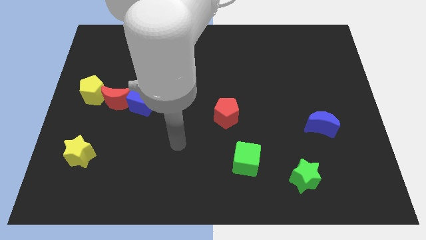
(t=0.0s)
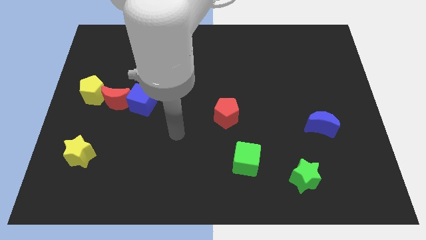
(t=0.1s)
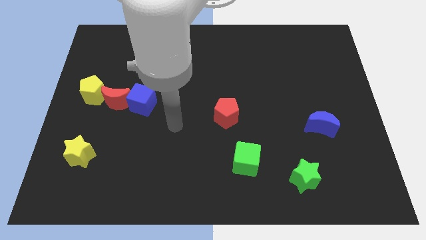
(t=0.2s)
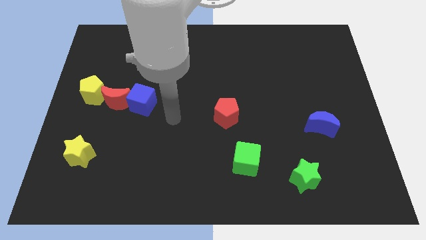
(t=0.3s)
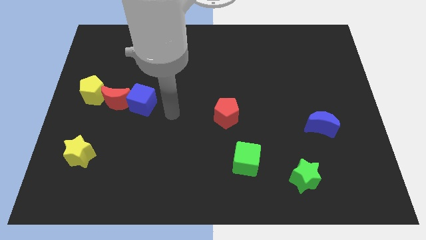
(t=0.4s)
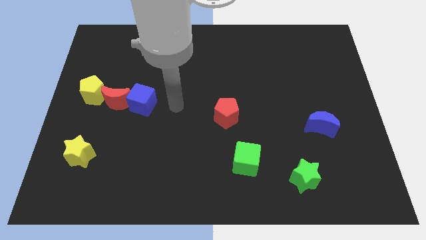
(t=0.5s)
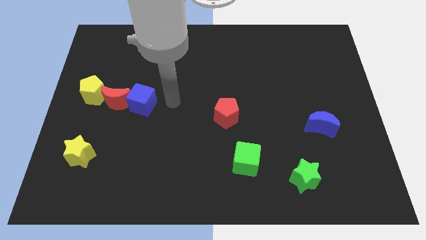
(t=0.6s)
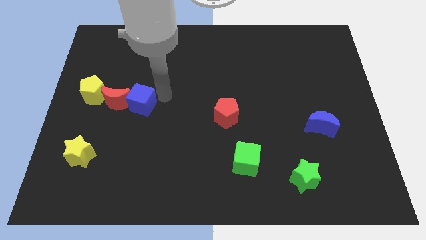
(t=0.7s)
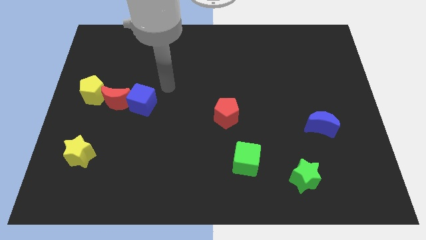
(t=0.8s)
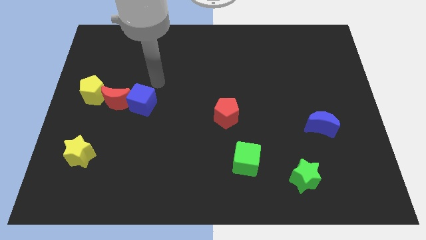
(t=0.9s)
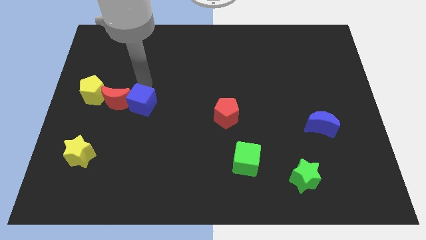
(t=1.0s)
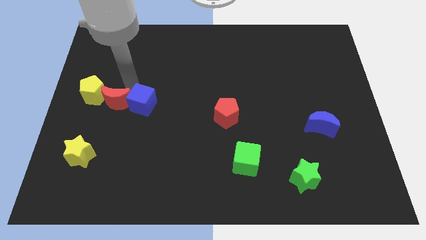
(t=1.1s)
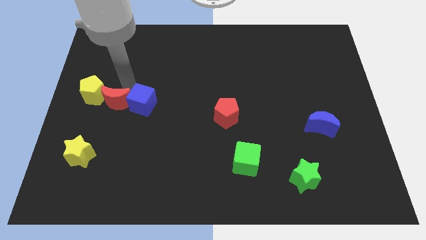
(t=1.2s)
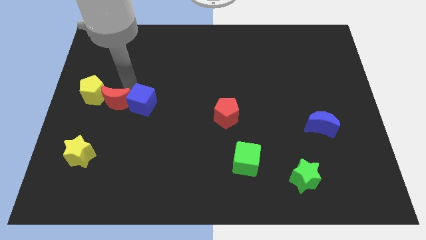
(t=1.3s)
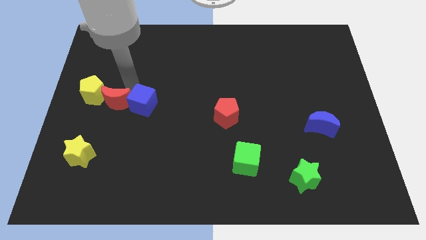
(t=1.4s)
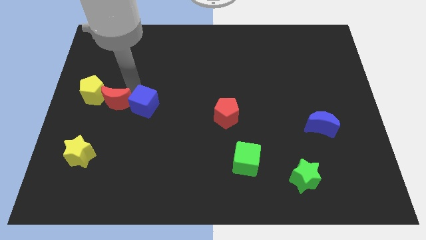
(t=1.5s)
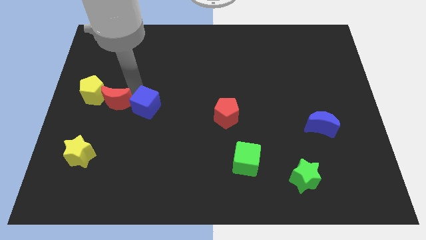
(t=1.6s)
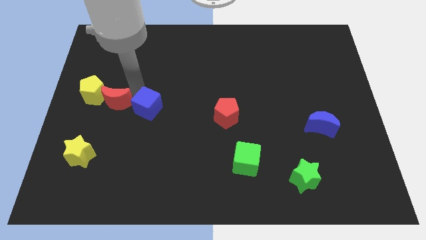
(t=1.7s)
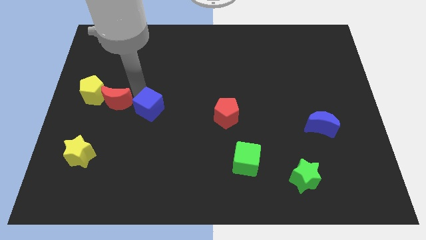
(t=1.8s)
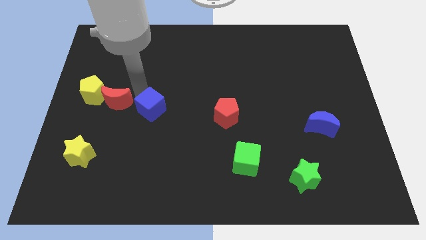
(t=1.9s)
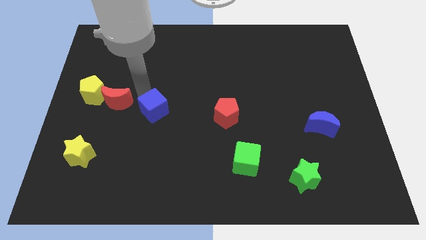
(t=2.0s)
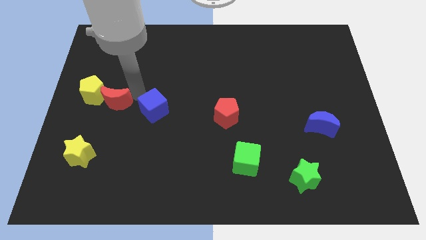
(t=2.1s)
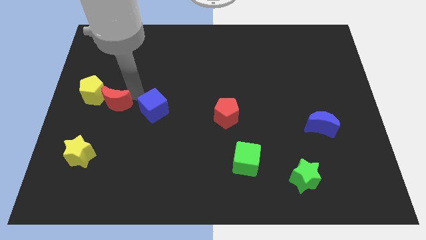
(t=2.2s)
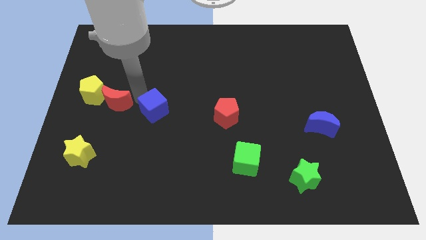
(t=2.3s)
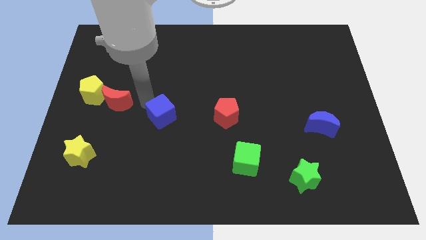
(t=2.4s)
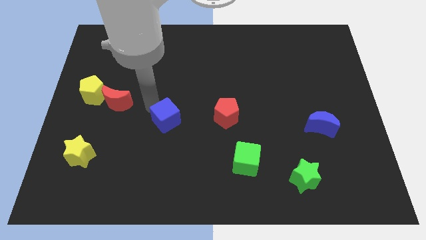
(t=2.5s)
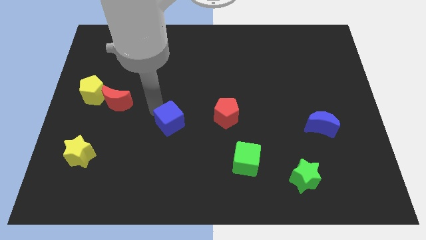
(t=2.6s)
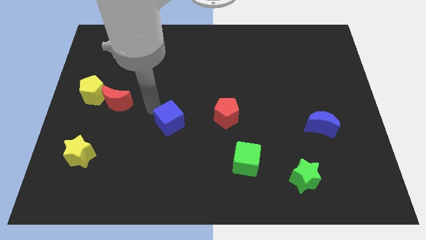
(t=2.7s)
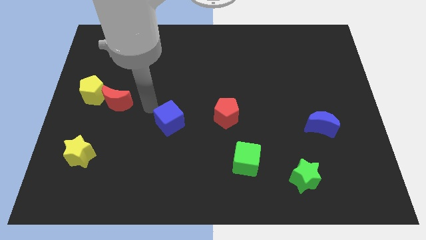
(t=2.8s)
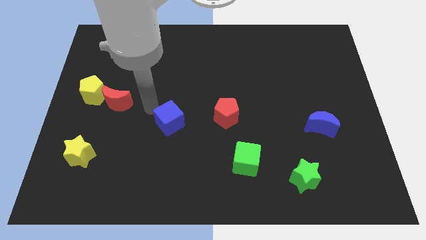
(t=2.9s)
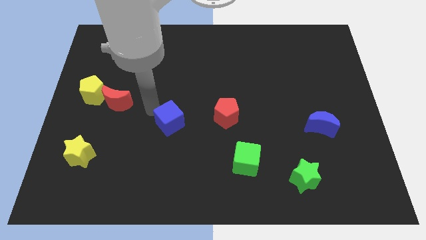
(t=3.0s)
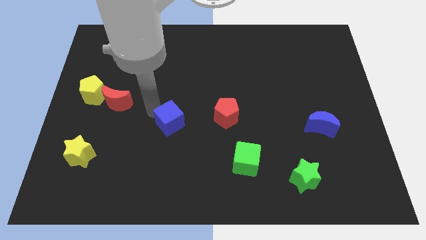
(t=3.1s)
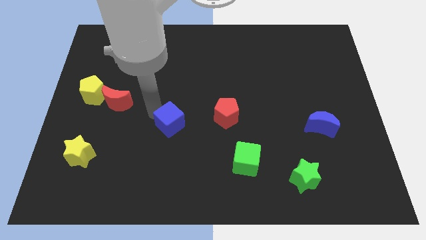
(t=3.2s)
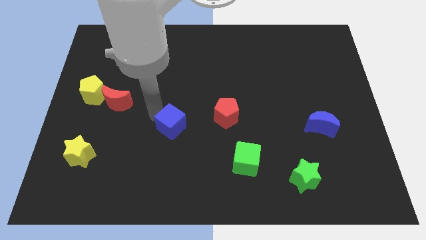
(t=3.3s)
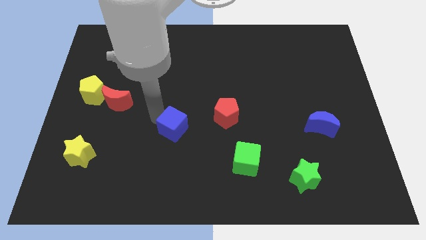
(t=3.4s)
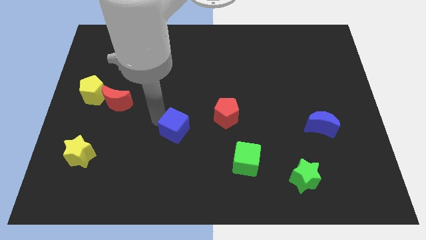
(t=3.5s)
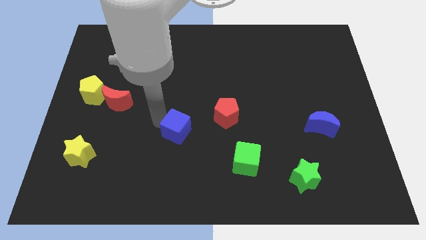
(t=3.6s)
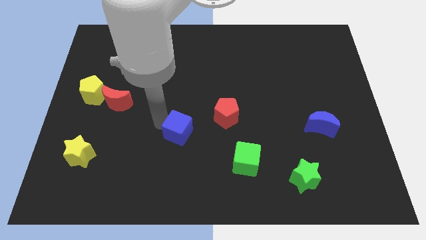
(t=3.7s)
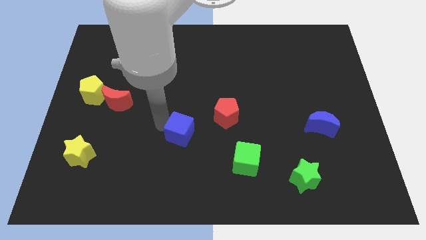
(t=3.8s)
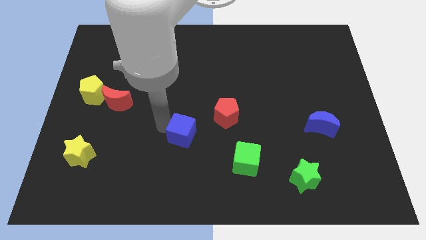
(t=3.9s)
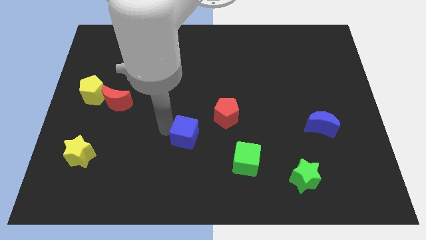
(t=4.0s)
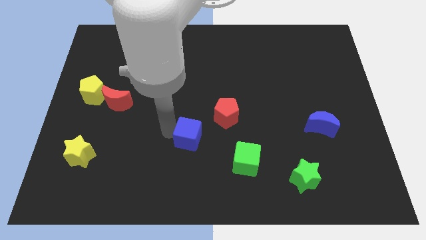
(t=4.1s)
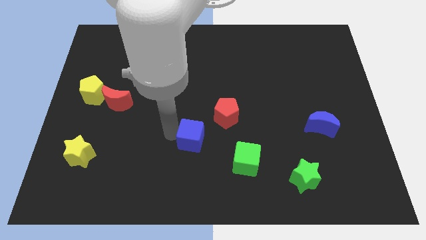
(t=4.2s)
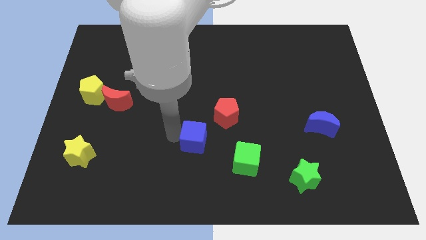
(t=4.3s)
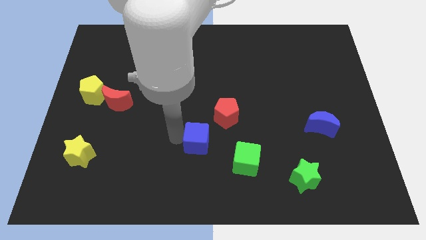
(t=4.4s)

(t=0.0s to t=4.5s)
put the blue cube to the top left of the green cube

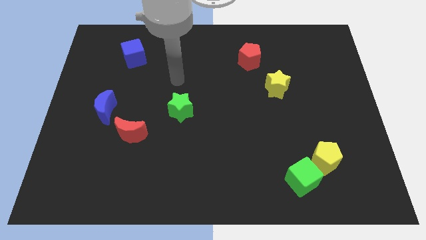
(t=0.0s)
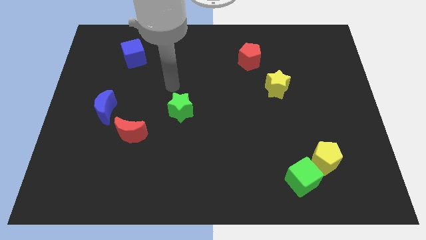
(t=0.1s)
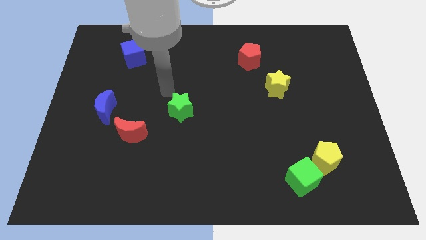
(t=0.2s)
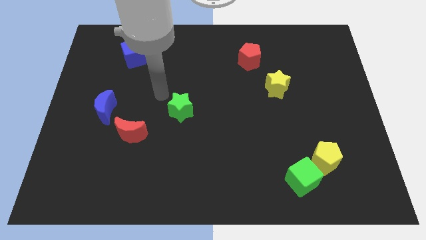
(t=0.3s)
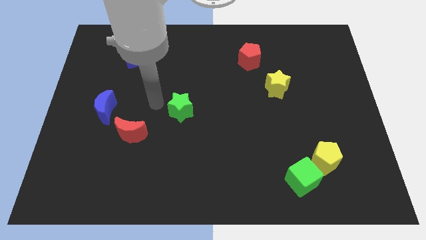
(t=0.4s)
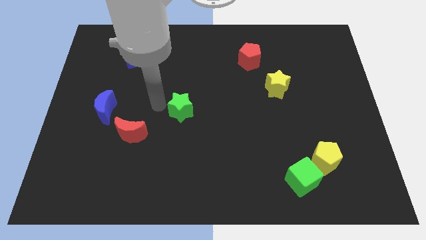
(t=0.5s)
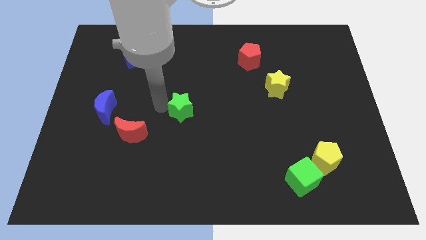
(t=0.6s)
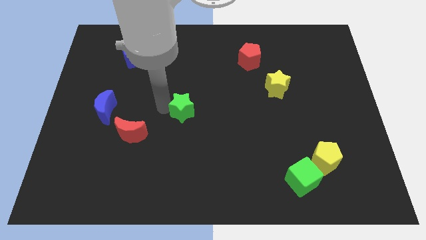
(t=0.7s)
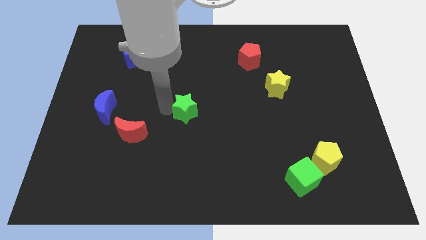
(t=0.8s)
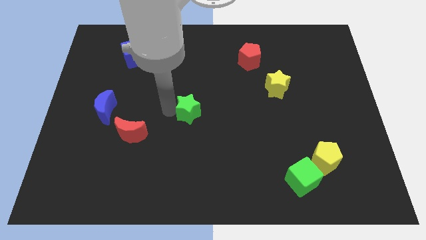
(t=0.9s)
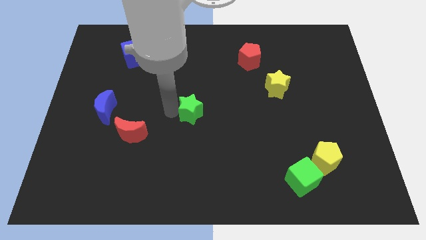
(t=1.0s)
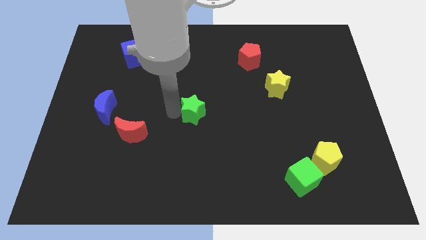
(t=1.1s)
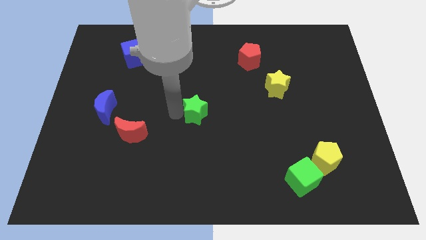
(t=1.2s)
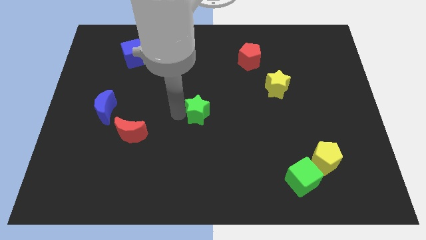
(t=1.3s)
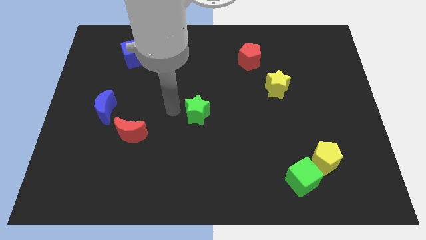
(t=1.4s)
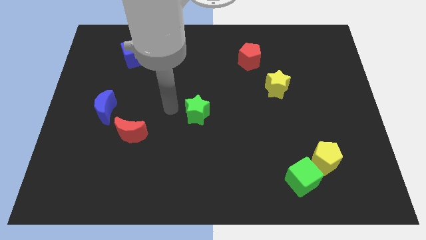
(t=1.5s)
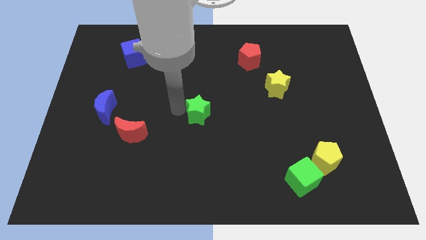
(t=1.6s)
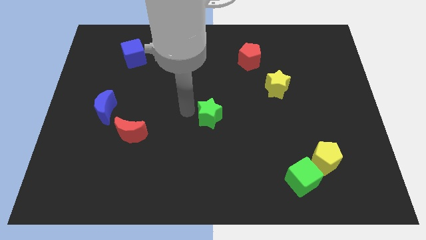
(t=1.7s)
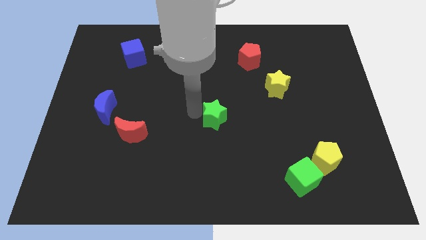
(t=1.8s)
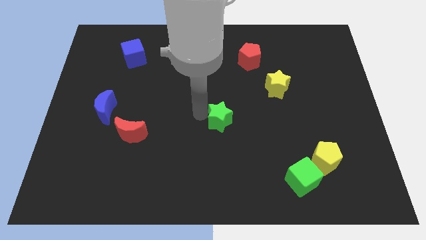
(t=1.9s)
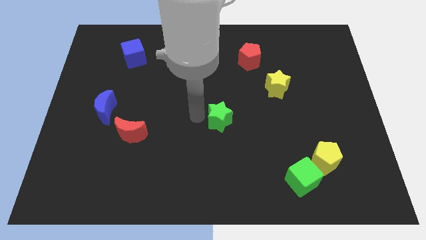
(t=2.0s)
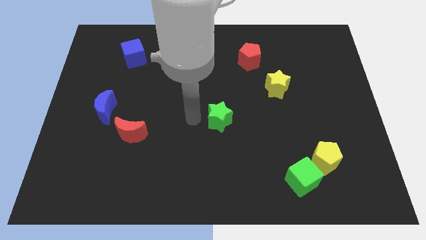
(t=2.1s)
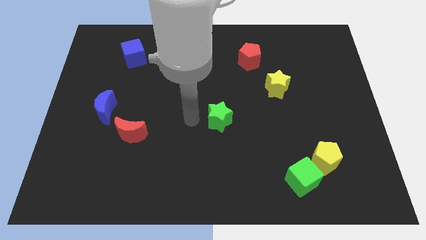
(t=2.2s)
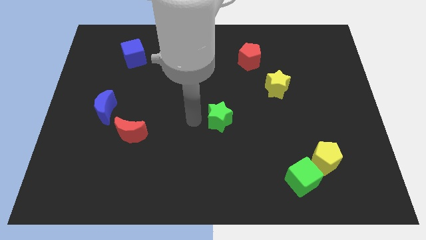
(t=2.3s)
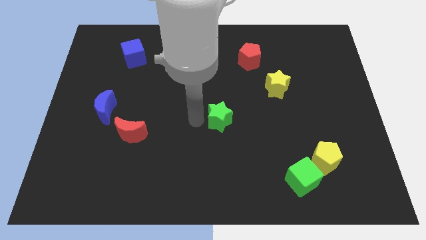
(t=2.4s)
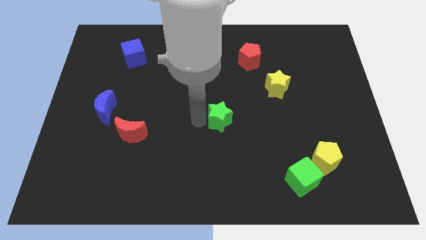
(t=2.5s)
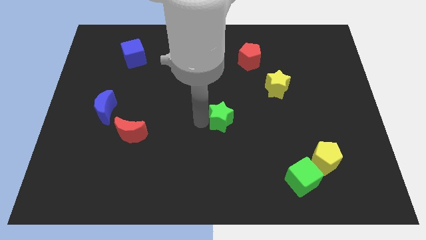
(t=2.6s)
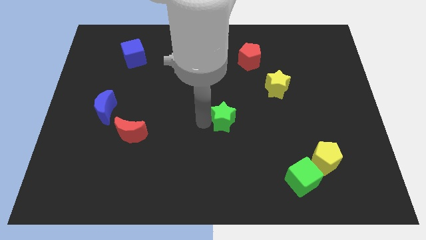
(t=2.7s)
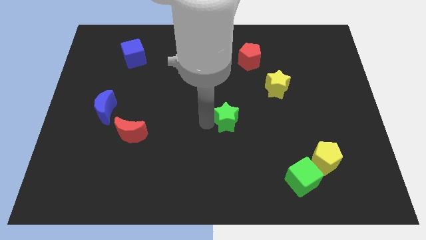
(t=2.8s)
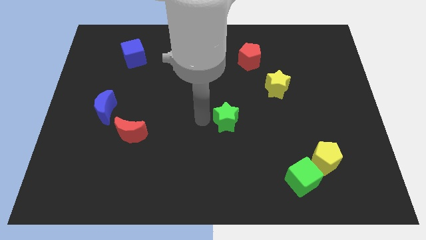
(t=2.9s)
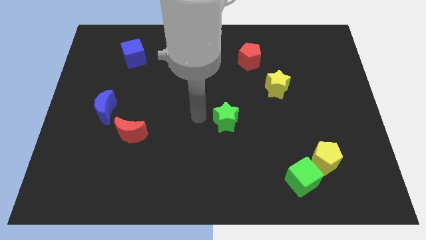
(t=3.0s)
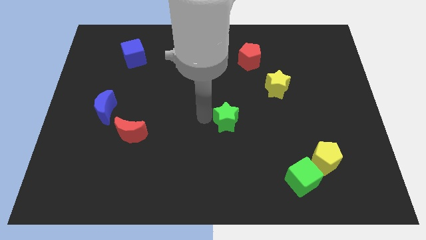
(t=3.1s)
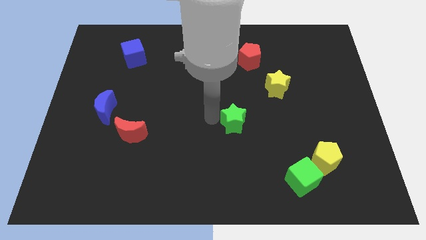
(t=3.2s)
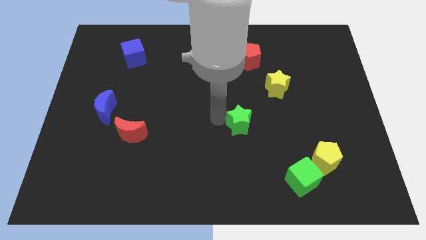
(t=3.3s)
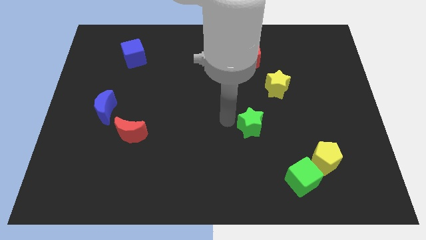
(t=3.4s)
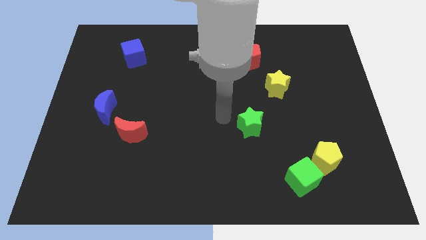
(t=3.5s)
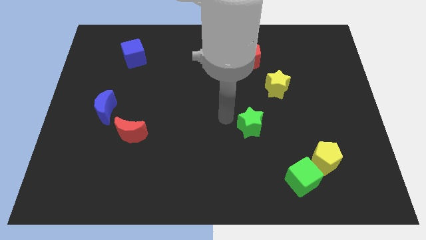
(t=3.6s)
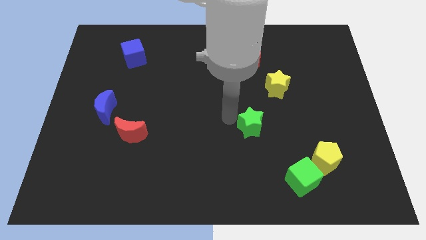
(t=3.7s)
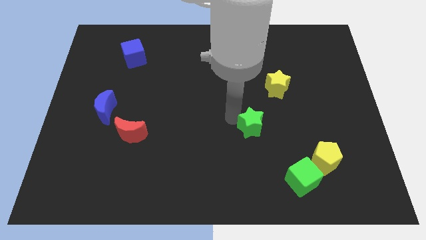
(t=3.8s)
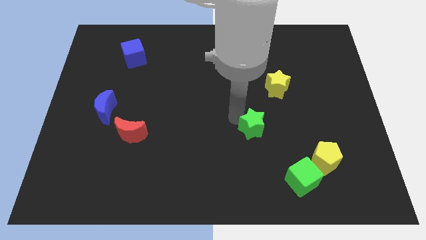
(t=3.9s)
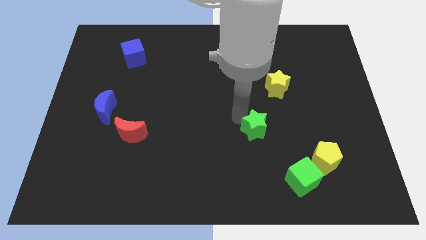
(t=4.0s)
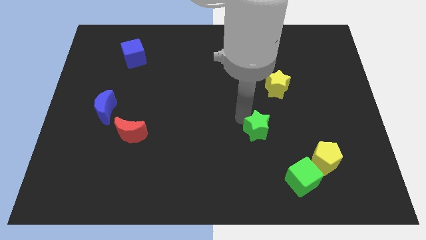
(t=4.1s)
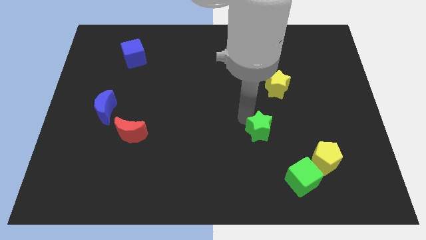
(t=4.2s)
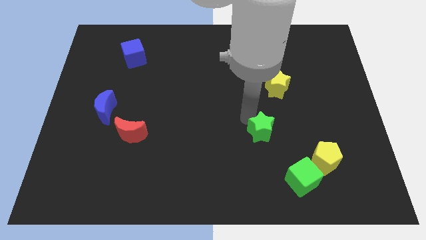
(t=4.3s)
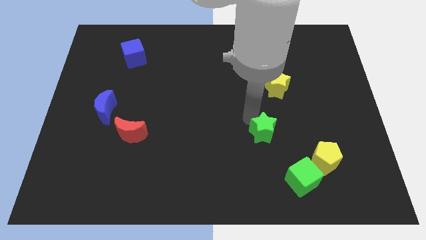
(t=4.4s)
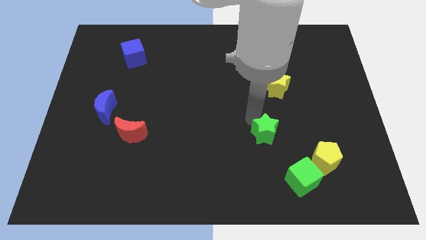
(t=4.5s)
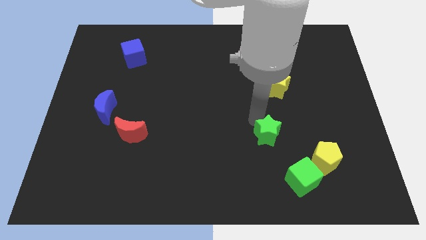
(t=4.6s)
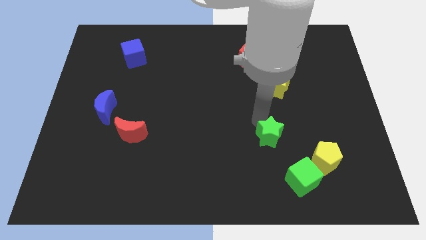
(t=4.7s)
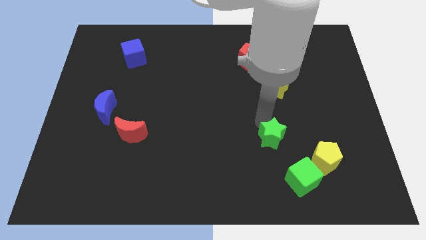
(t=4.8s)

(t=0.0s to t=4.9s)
slide the green star to the top left of the yellow pentagon
